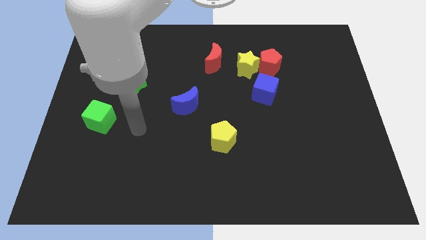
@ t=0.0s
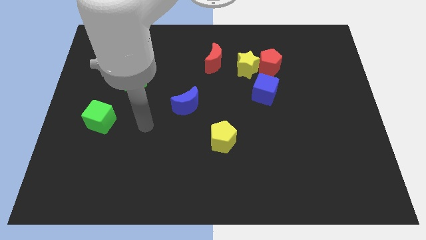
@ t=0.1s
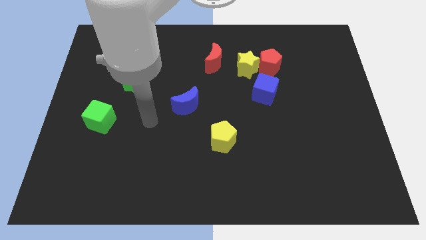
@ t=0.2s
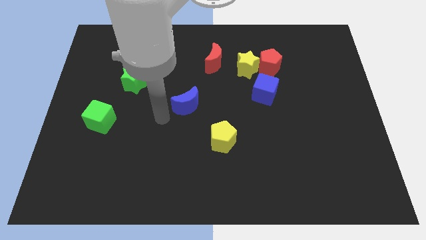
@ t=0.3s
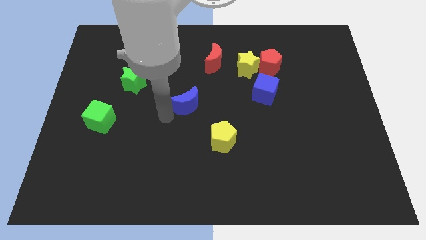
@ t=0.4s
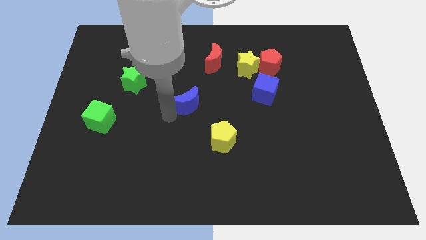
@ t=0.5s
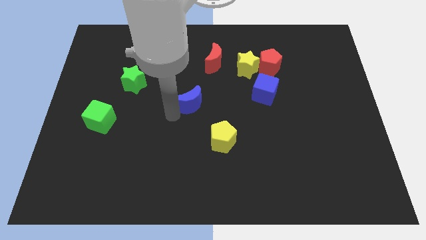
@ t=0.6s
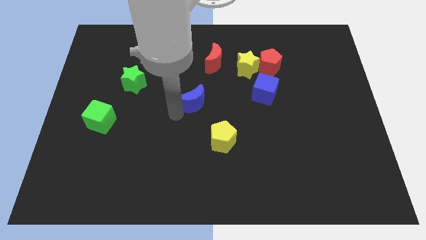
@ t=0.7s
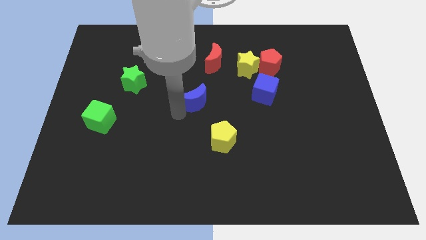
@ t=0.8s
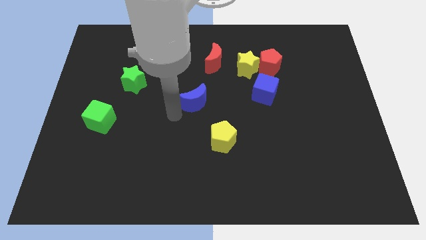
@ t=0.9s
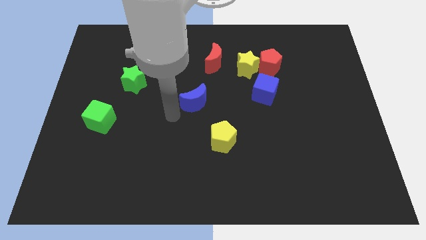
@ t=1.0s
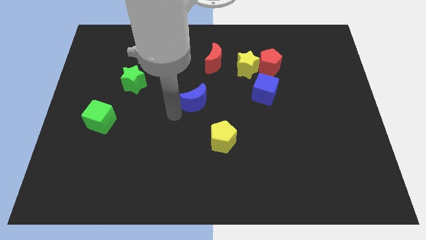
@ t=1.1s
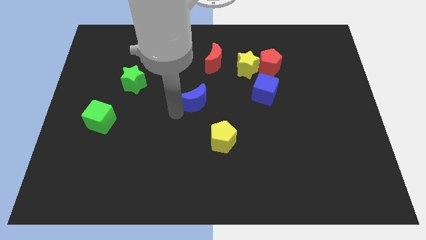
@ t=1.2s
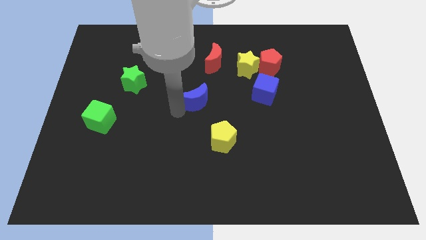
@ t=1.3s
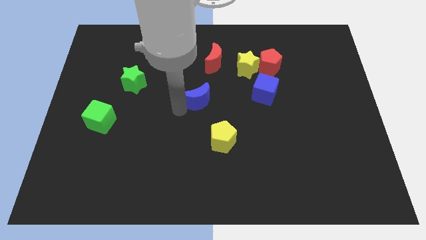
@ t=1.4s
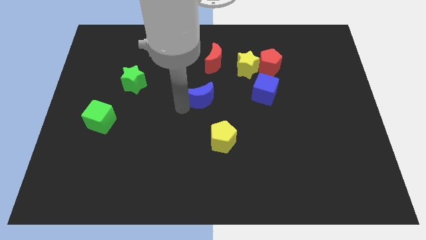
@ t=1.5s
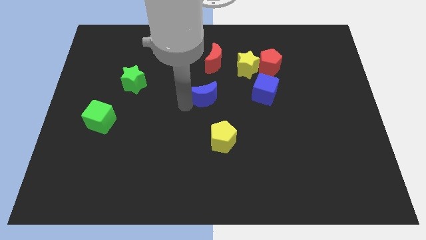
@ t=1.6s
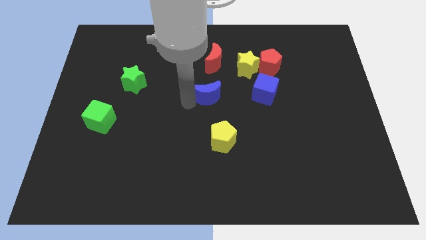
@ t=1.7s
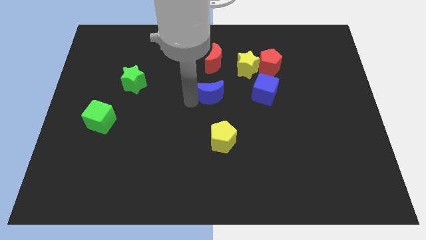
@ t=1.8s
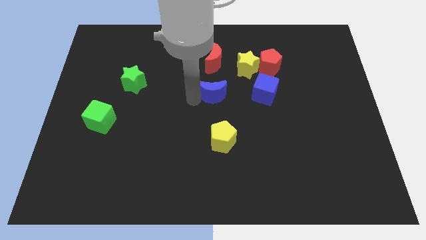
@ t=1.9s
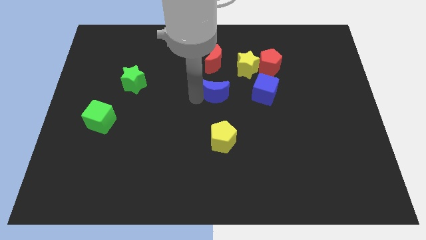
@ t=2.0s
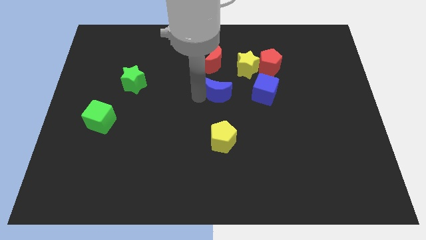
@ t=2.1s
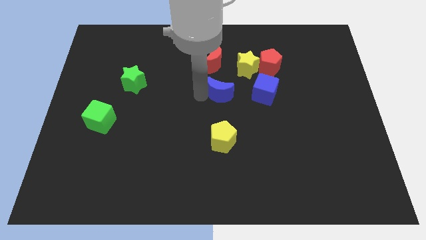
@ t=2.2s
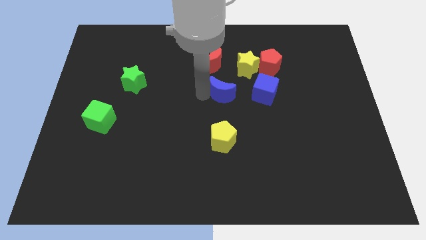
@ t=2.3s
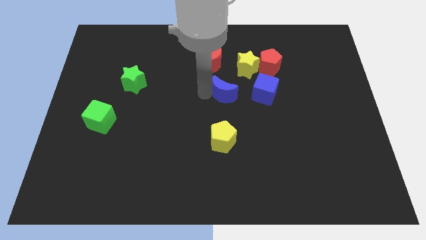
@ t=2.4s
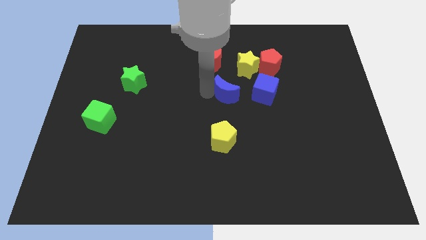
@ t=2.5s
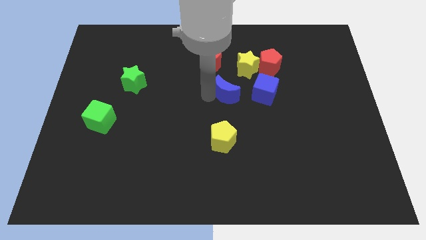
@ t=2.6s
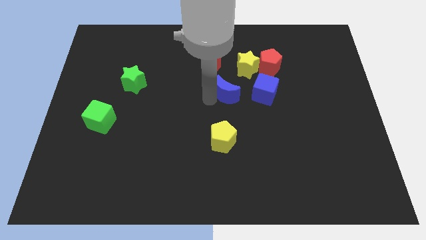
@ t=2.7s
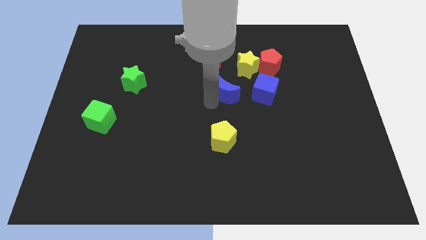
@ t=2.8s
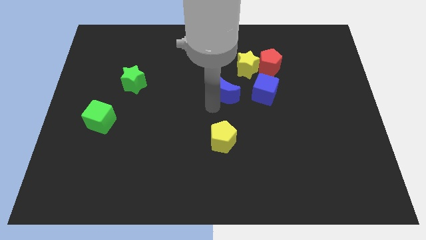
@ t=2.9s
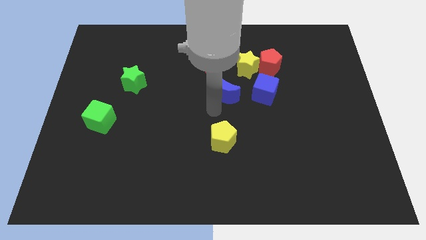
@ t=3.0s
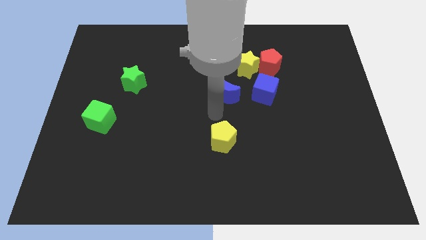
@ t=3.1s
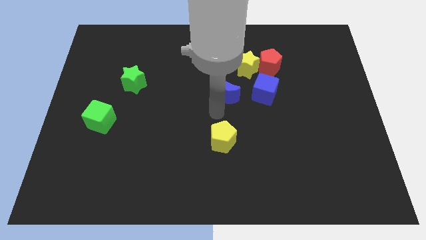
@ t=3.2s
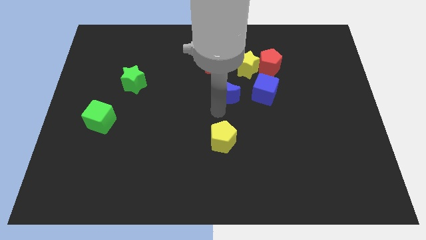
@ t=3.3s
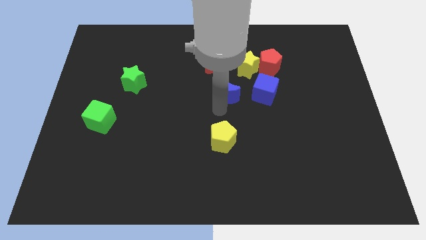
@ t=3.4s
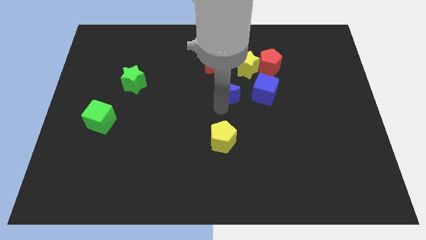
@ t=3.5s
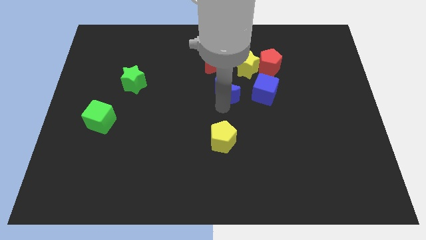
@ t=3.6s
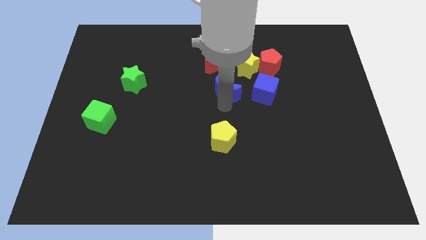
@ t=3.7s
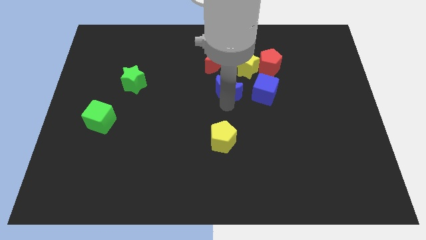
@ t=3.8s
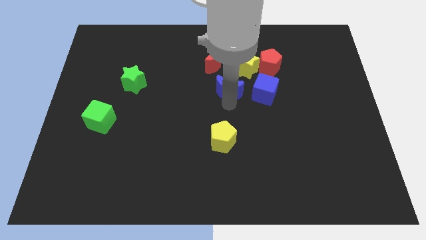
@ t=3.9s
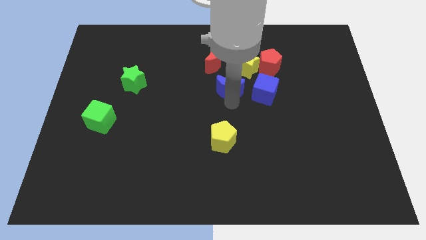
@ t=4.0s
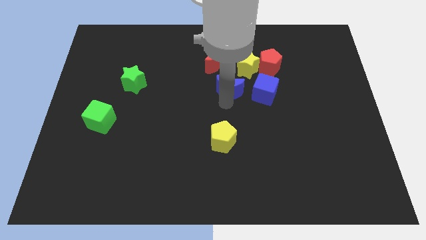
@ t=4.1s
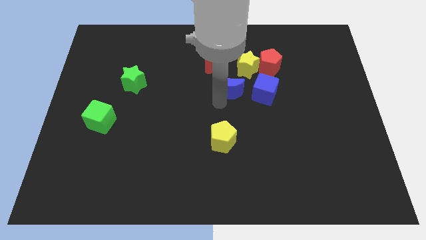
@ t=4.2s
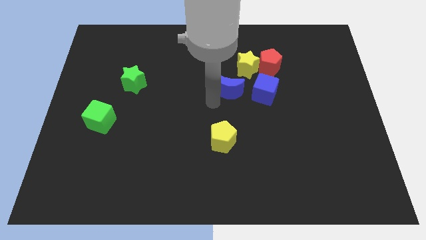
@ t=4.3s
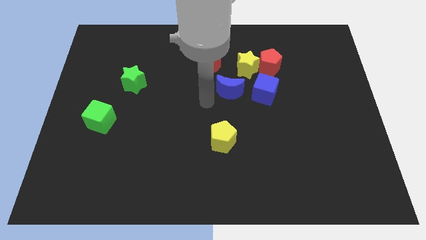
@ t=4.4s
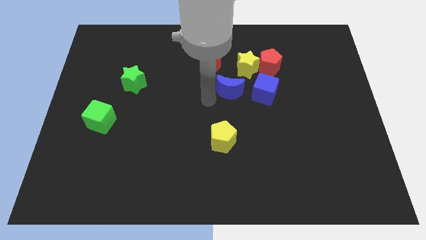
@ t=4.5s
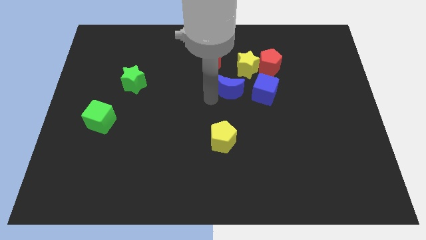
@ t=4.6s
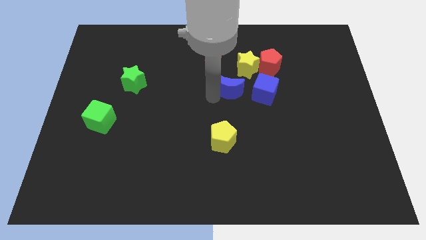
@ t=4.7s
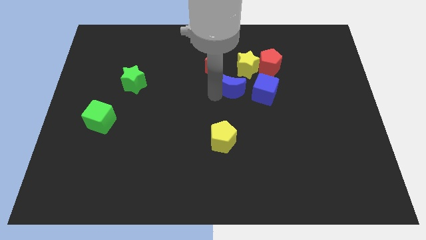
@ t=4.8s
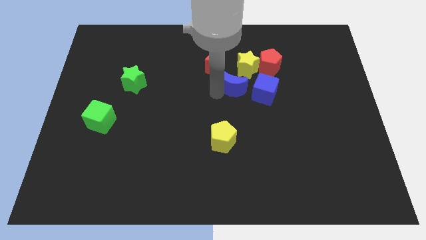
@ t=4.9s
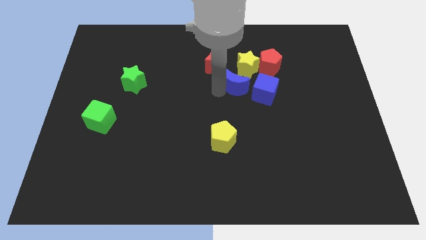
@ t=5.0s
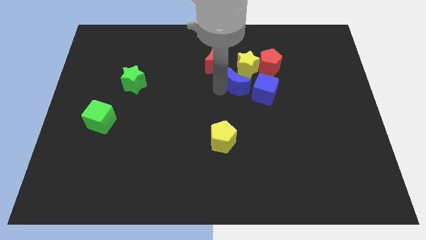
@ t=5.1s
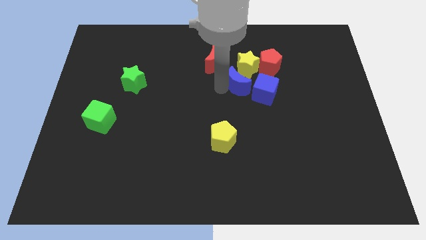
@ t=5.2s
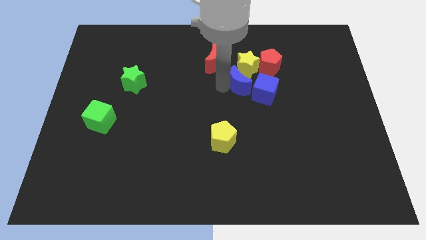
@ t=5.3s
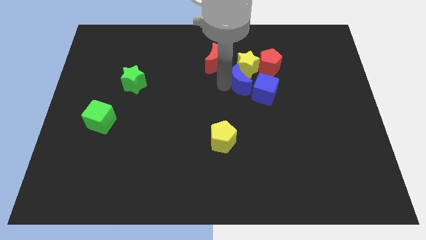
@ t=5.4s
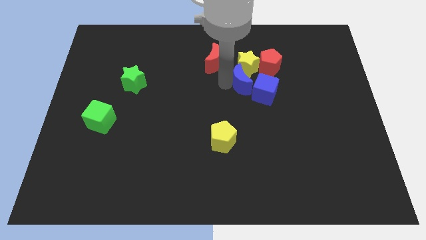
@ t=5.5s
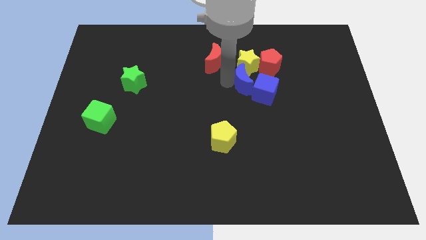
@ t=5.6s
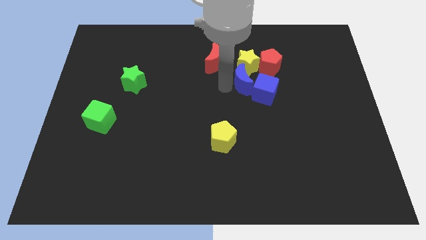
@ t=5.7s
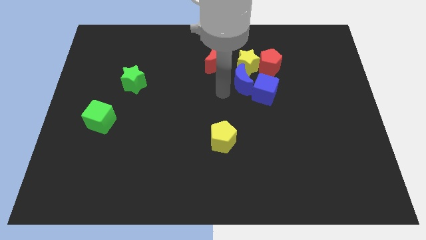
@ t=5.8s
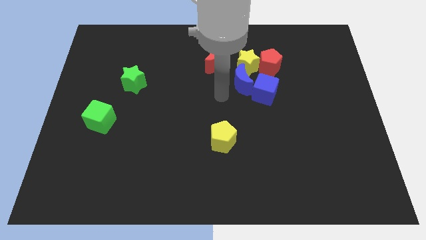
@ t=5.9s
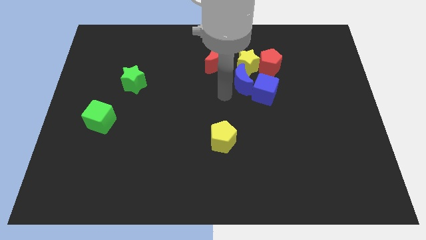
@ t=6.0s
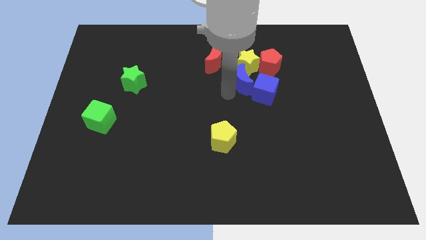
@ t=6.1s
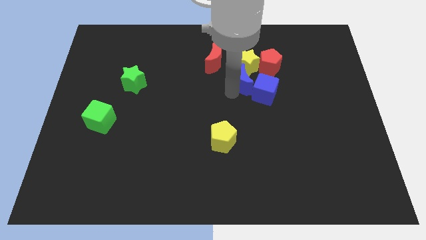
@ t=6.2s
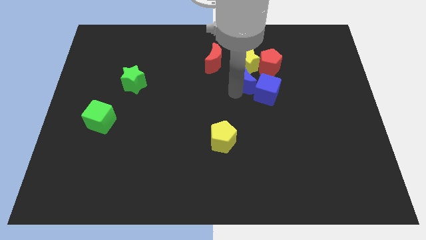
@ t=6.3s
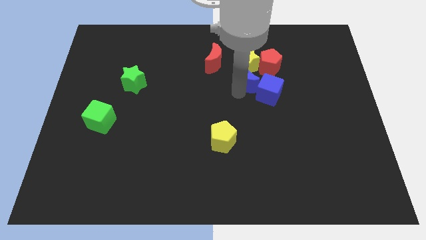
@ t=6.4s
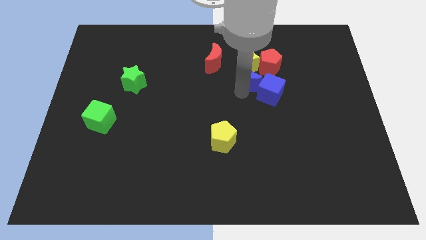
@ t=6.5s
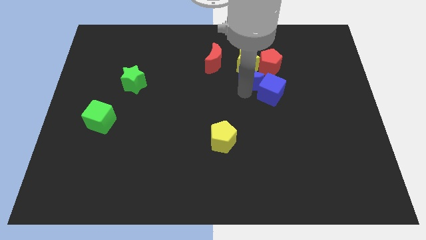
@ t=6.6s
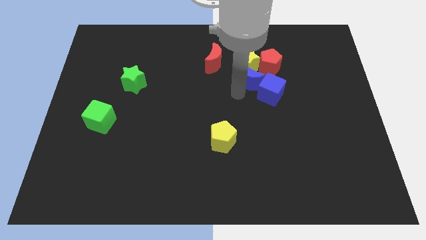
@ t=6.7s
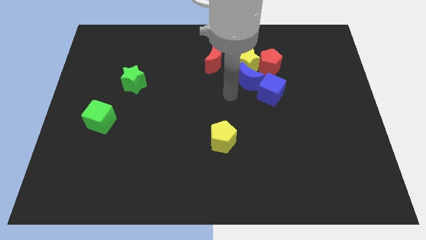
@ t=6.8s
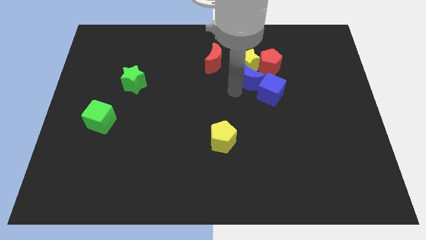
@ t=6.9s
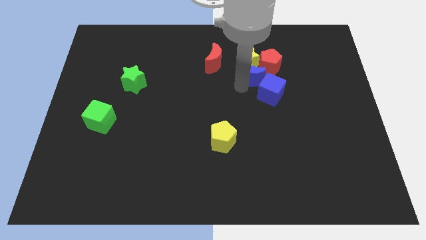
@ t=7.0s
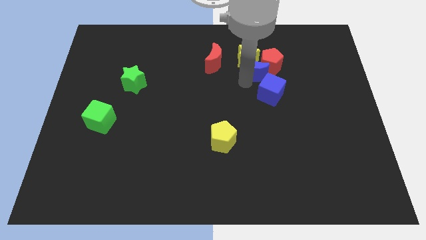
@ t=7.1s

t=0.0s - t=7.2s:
slide the blue moon next to the red pentagon
